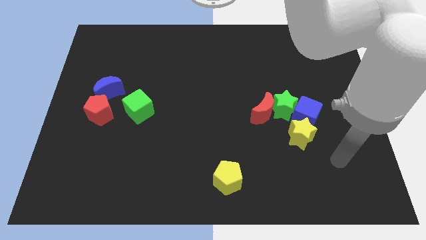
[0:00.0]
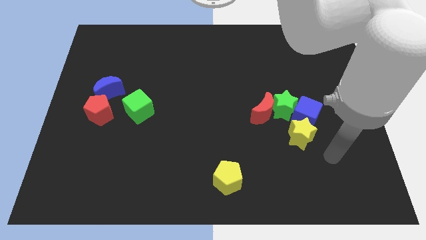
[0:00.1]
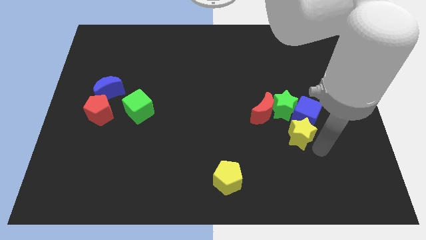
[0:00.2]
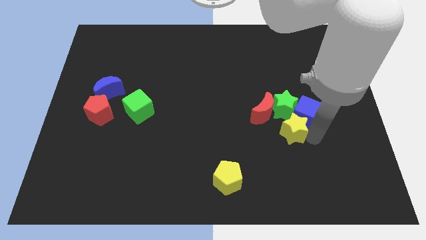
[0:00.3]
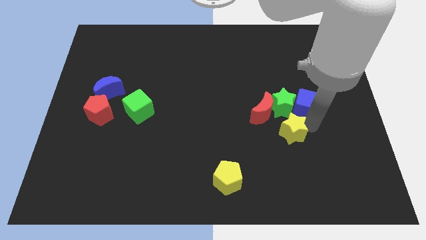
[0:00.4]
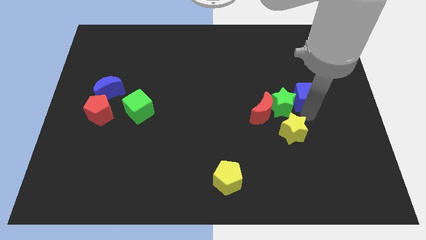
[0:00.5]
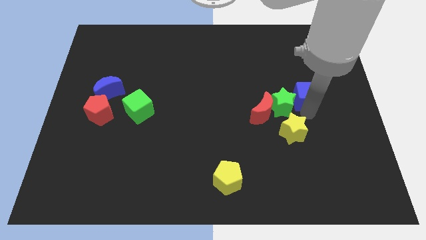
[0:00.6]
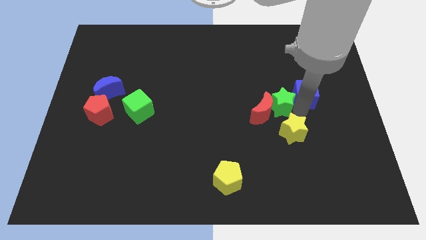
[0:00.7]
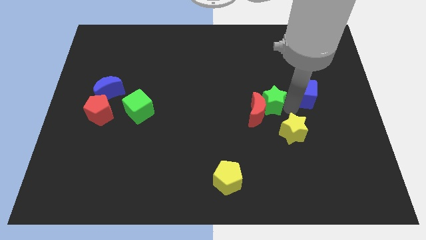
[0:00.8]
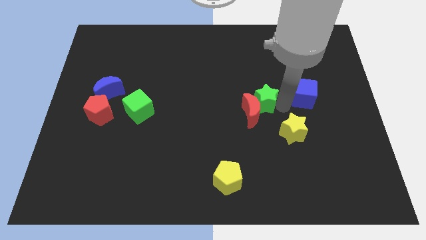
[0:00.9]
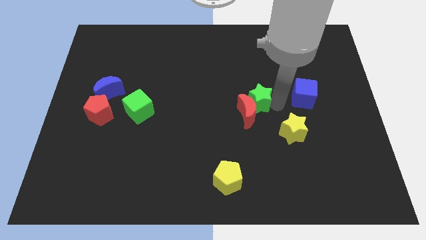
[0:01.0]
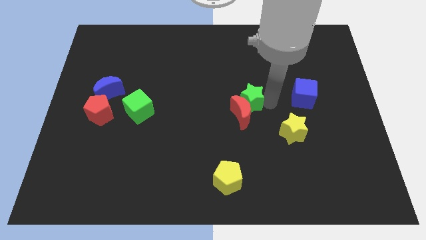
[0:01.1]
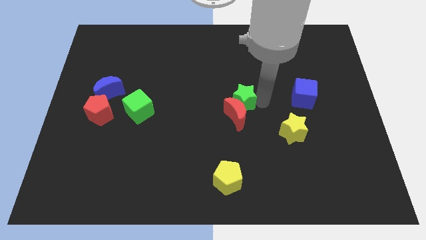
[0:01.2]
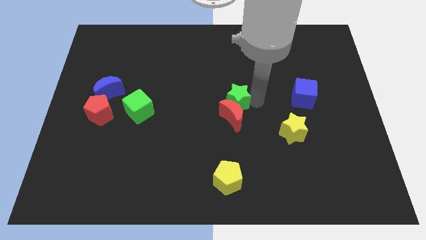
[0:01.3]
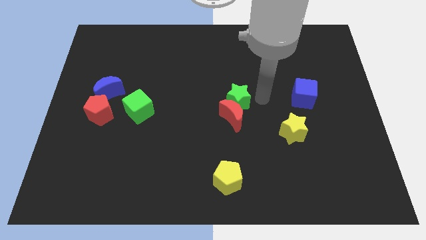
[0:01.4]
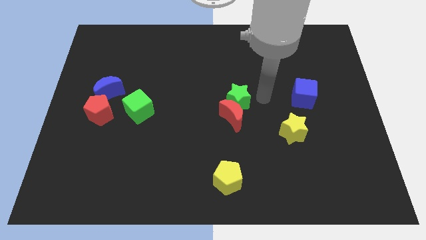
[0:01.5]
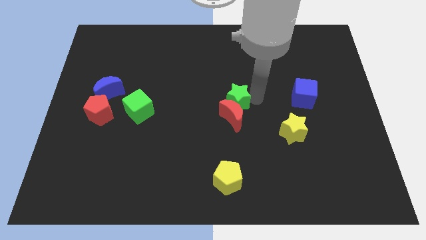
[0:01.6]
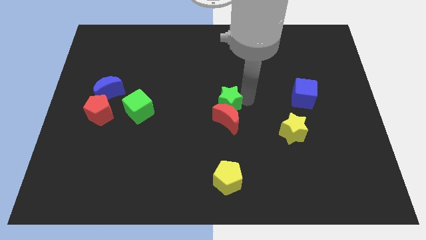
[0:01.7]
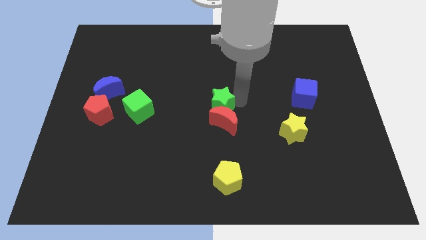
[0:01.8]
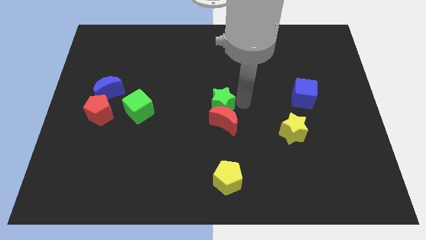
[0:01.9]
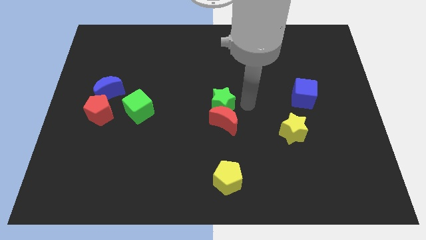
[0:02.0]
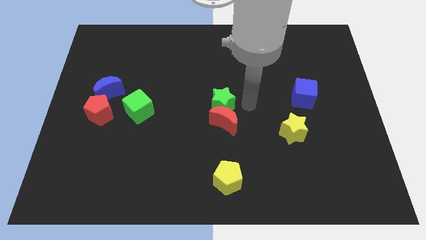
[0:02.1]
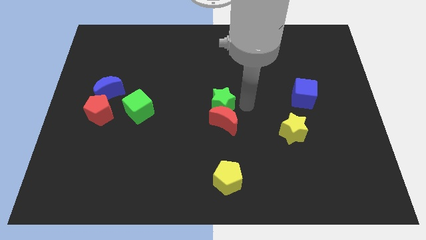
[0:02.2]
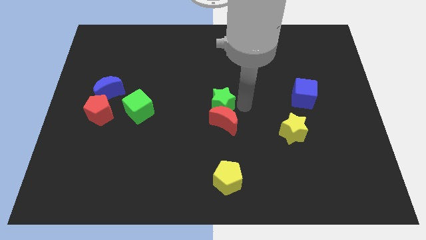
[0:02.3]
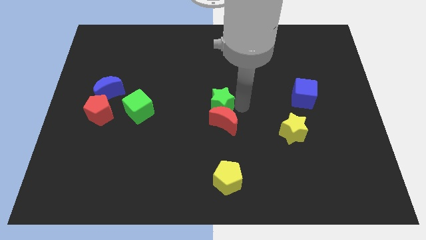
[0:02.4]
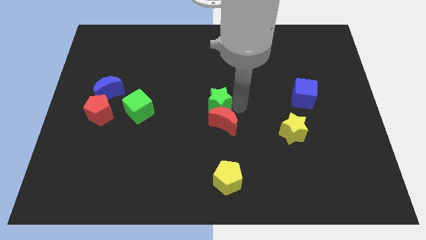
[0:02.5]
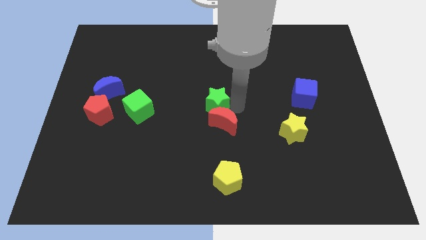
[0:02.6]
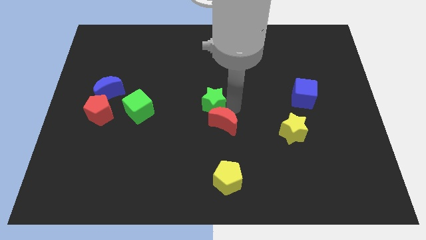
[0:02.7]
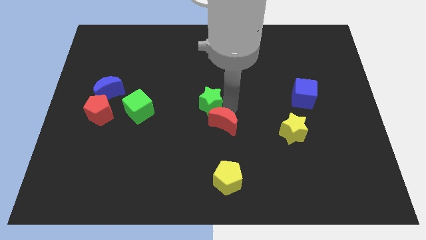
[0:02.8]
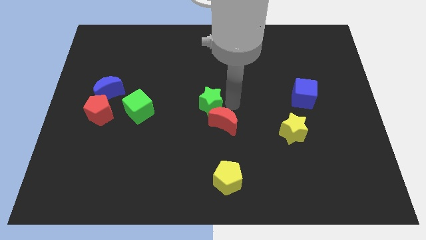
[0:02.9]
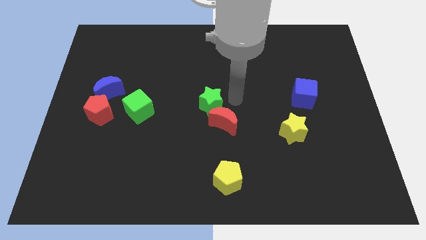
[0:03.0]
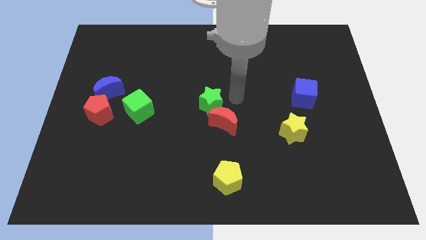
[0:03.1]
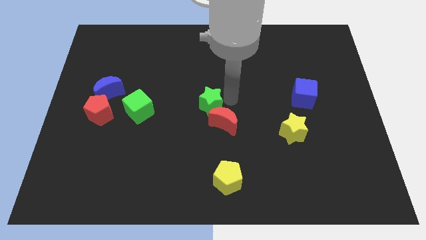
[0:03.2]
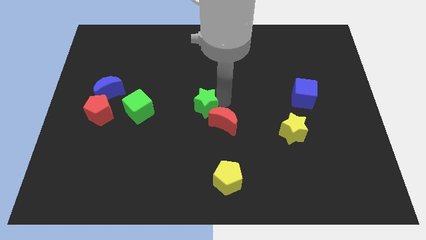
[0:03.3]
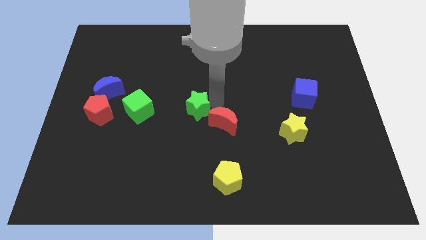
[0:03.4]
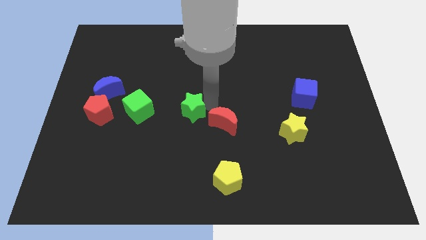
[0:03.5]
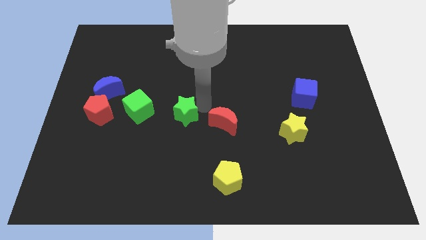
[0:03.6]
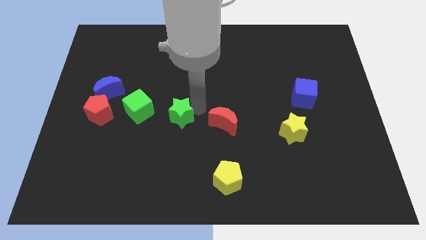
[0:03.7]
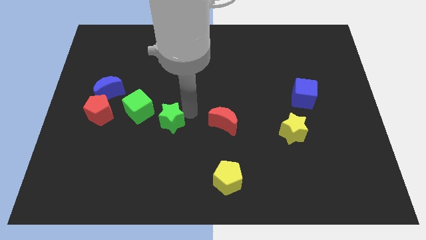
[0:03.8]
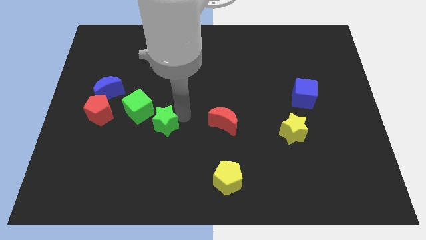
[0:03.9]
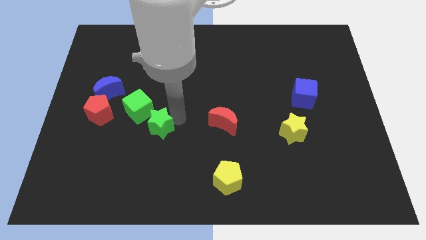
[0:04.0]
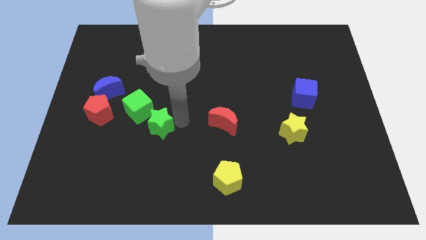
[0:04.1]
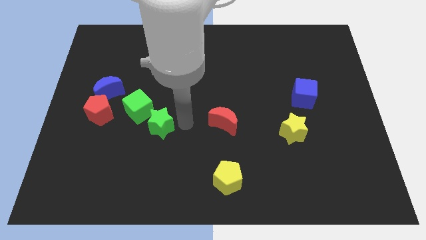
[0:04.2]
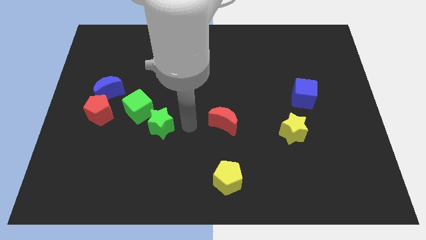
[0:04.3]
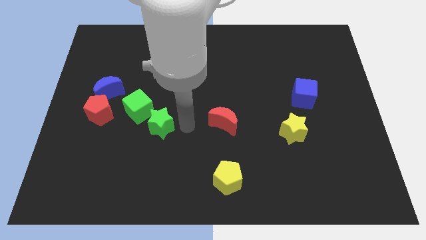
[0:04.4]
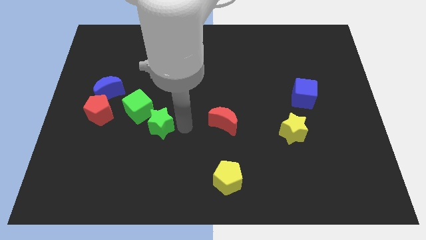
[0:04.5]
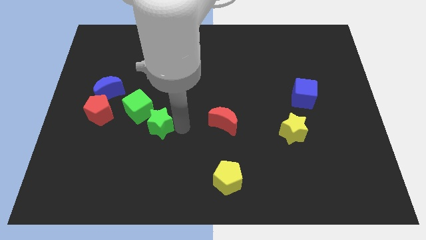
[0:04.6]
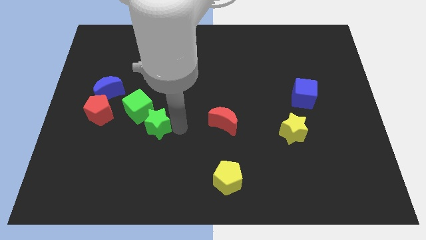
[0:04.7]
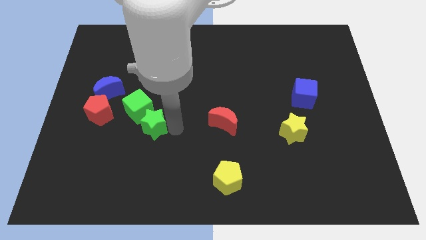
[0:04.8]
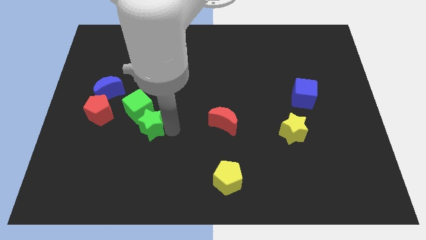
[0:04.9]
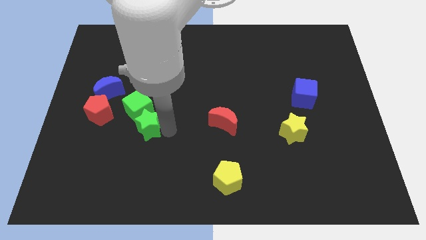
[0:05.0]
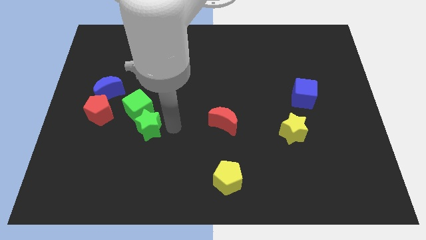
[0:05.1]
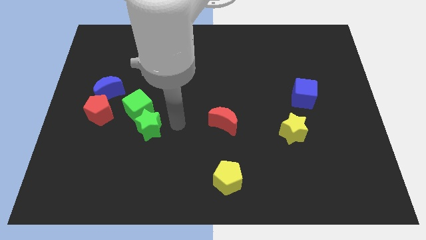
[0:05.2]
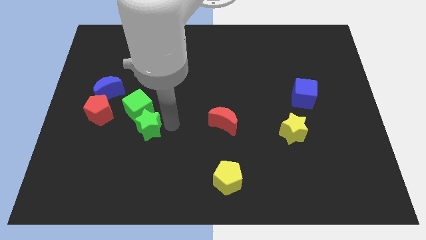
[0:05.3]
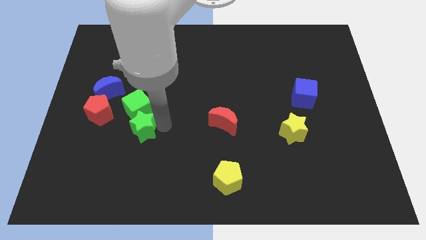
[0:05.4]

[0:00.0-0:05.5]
move the green star diagonally down and to the right of the red pentagon

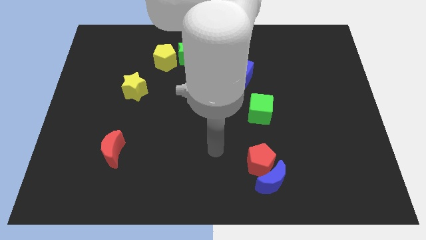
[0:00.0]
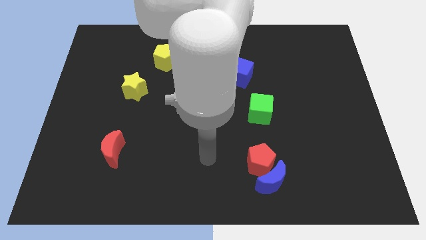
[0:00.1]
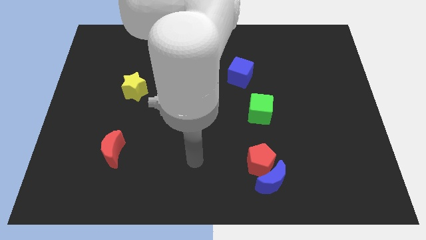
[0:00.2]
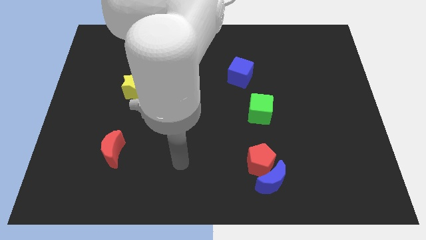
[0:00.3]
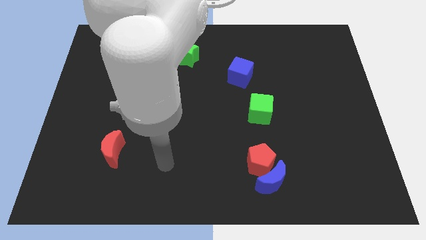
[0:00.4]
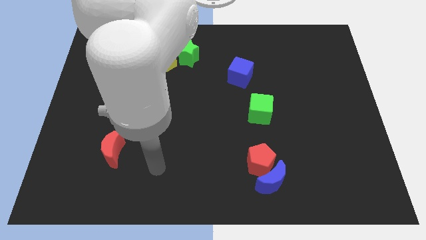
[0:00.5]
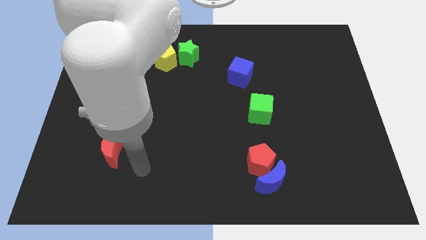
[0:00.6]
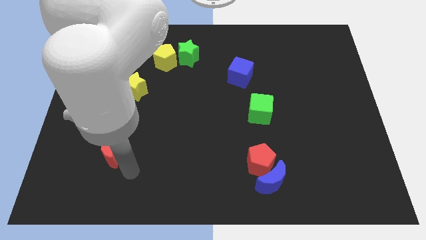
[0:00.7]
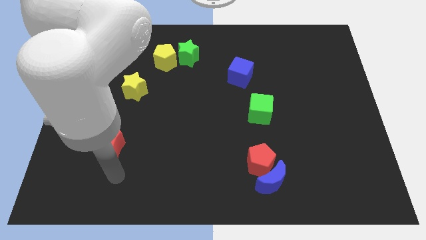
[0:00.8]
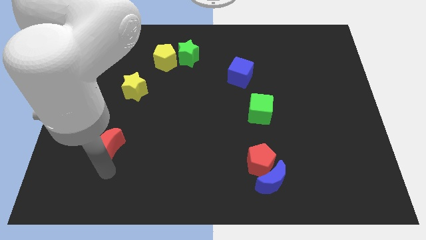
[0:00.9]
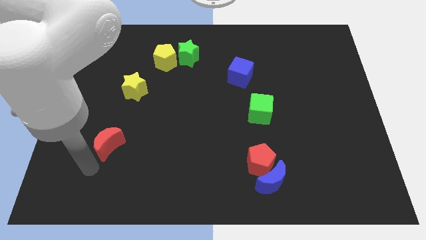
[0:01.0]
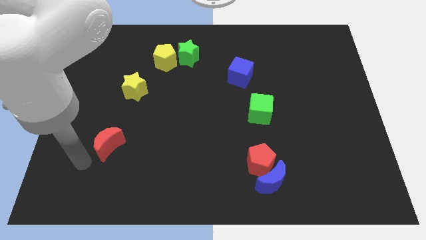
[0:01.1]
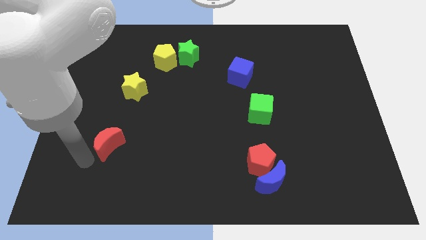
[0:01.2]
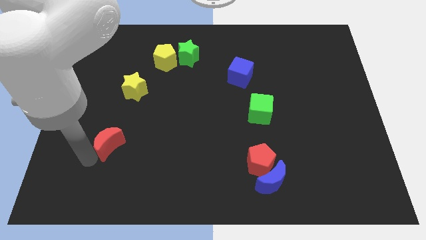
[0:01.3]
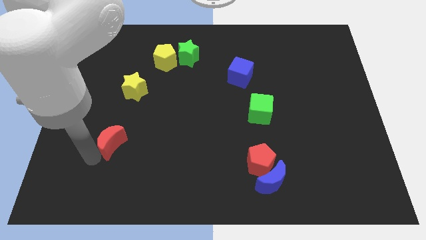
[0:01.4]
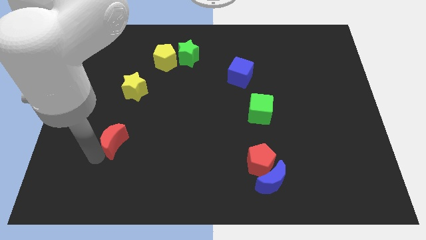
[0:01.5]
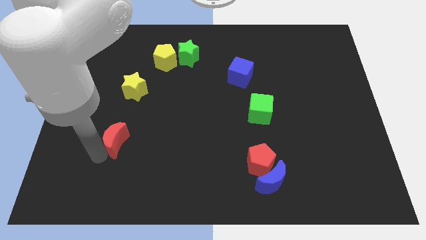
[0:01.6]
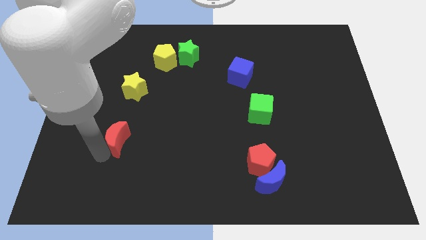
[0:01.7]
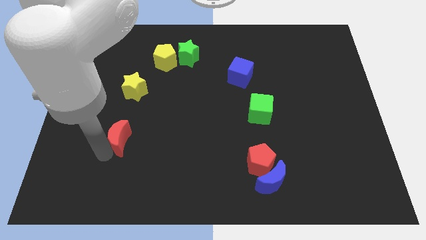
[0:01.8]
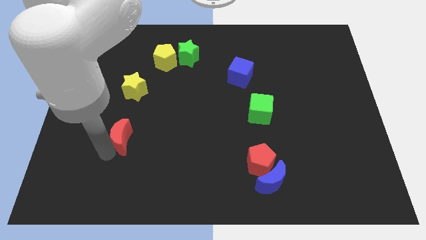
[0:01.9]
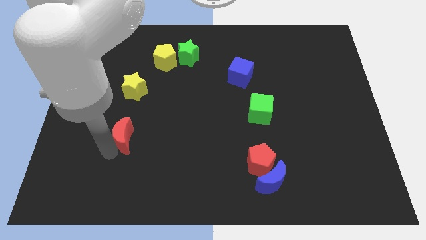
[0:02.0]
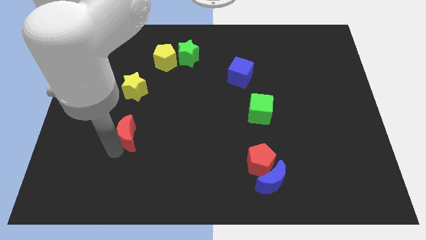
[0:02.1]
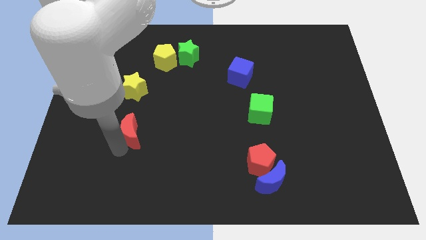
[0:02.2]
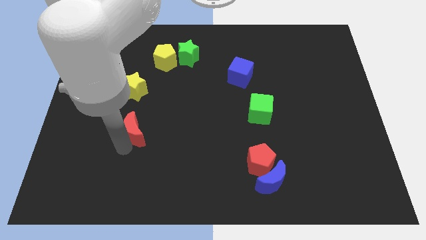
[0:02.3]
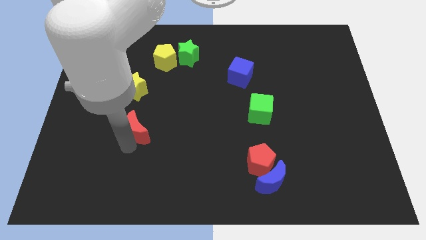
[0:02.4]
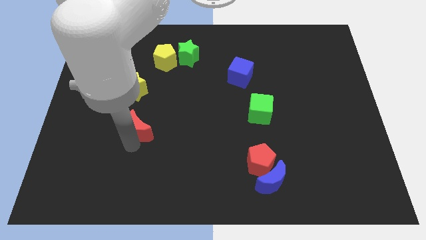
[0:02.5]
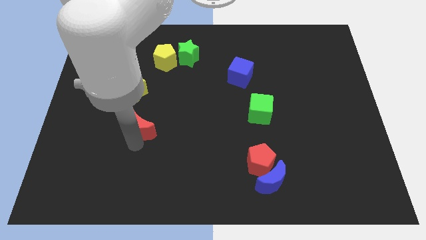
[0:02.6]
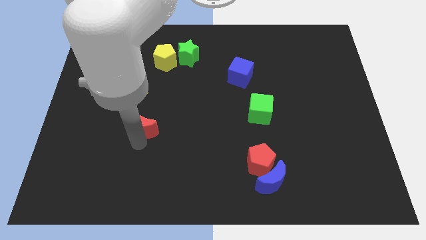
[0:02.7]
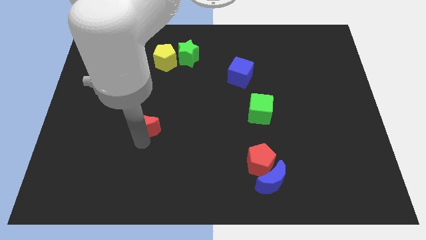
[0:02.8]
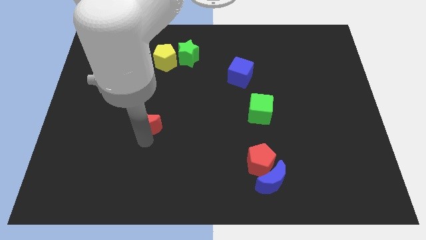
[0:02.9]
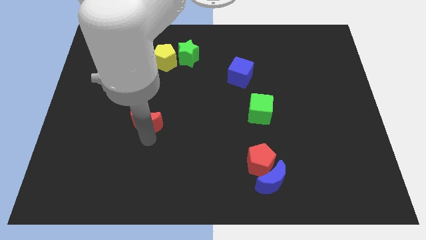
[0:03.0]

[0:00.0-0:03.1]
push the red moon to the bottom right of the yellow star
